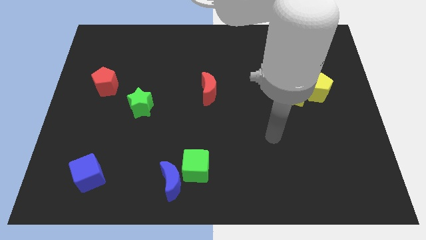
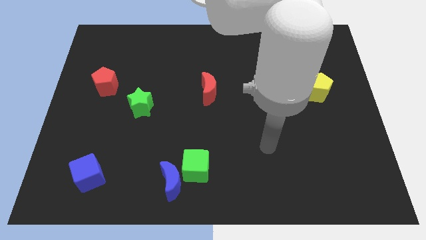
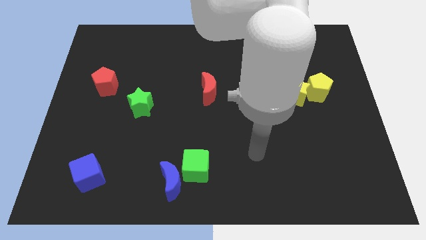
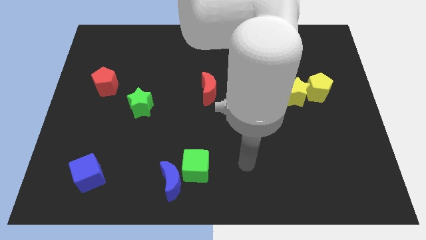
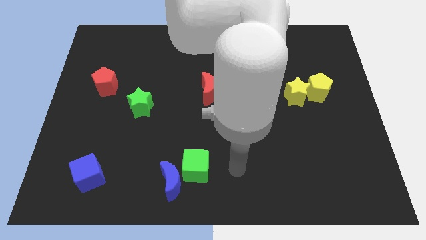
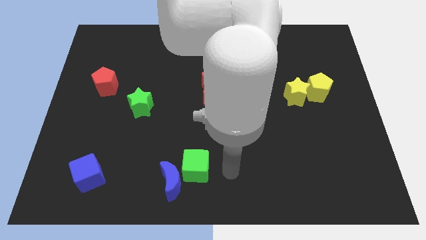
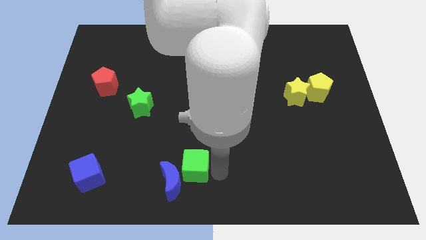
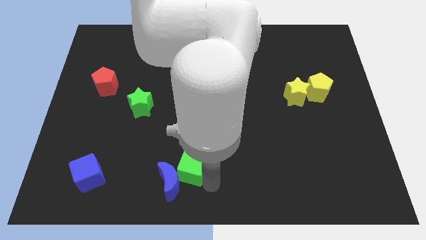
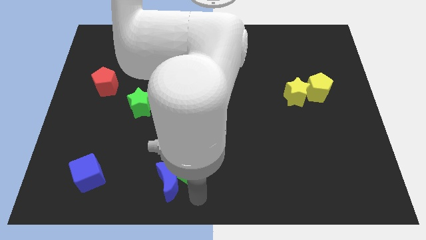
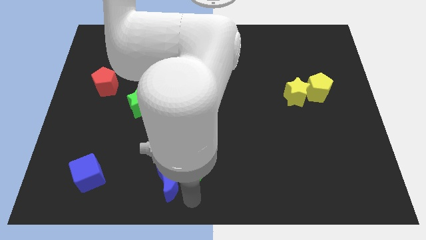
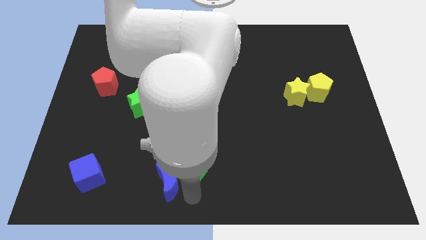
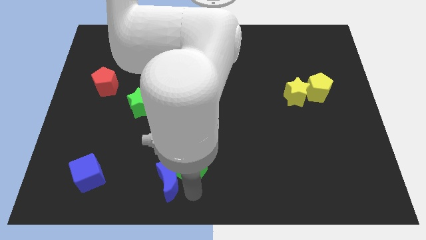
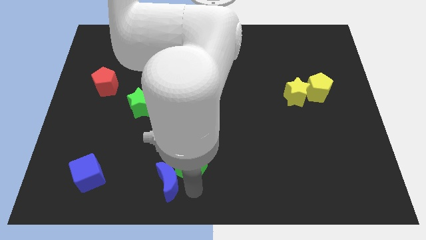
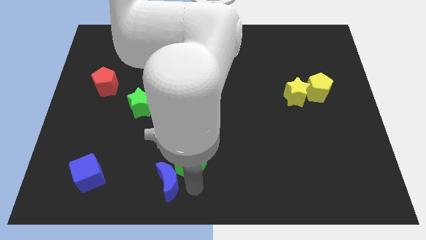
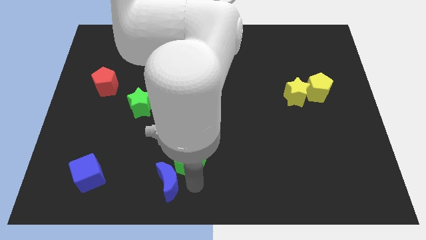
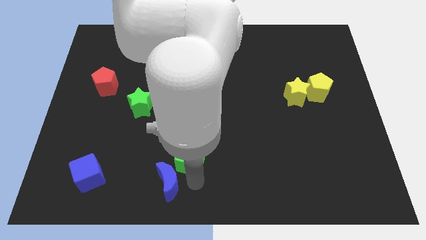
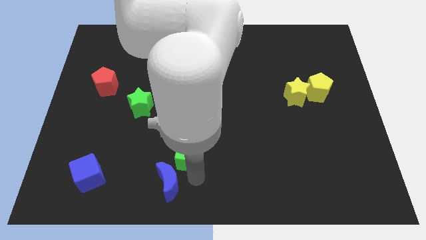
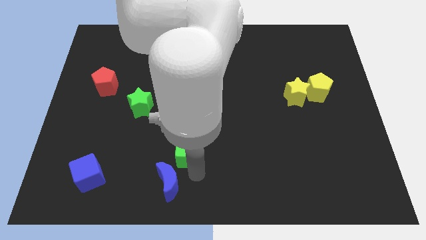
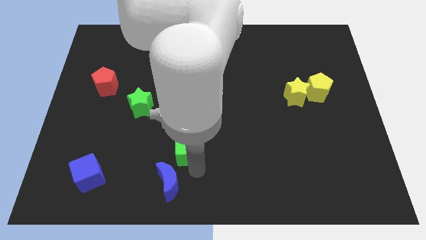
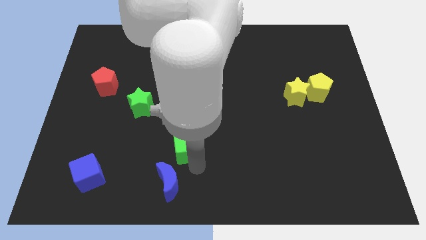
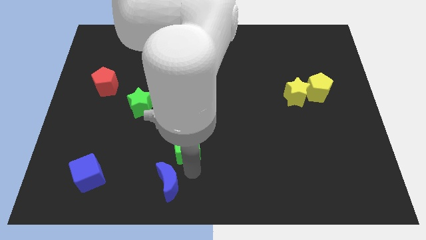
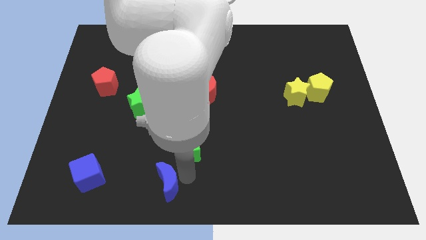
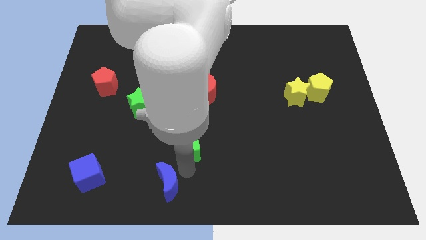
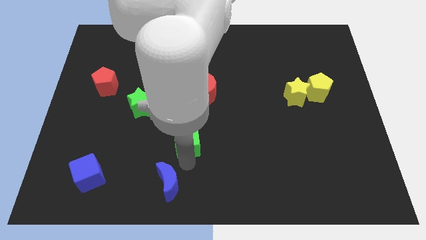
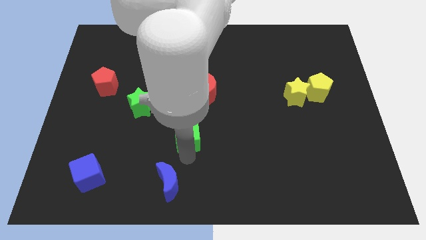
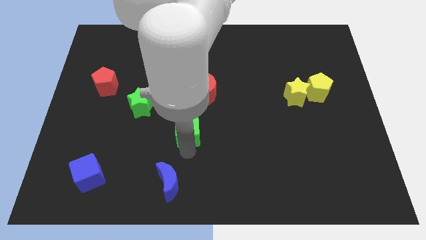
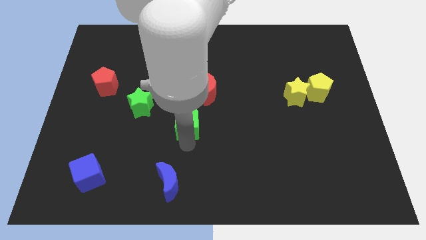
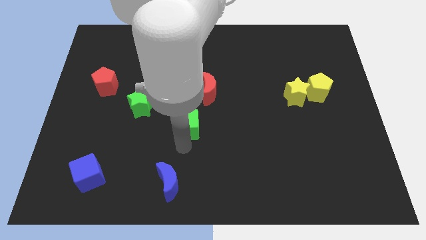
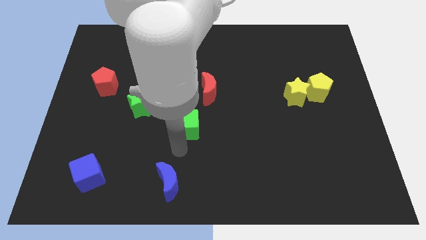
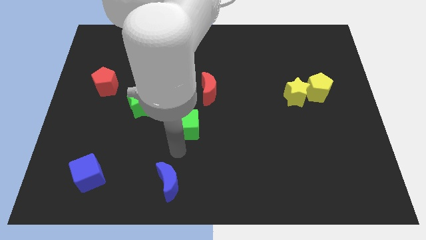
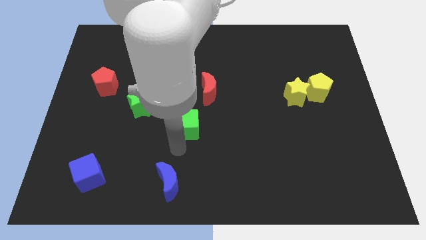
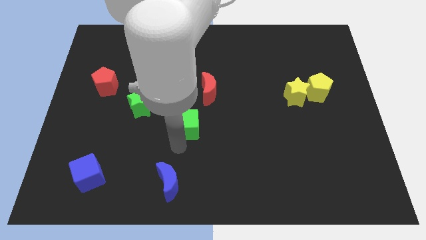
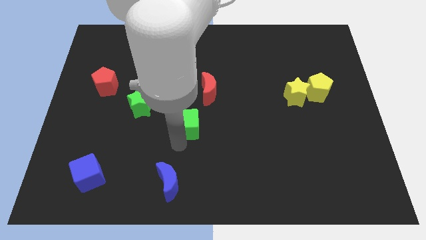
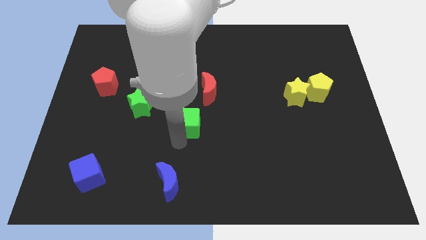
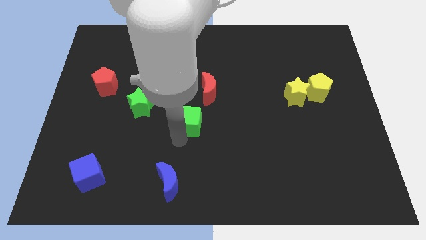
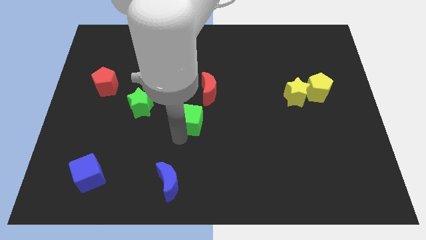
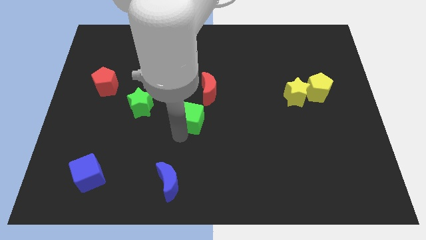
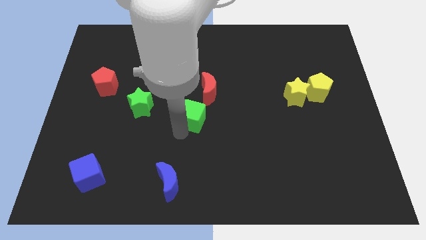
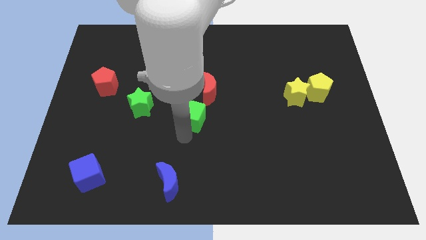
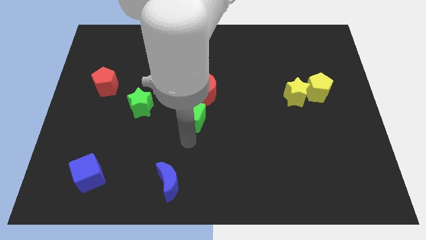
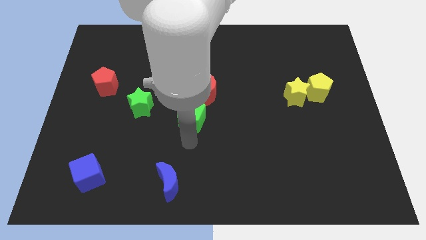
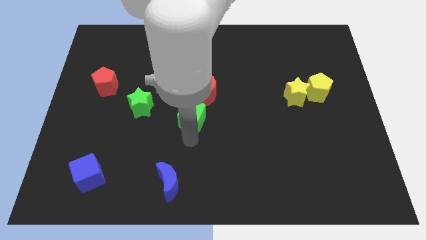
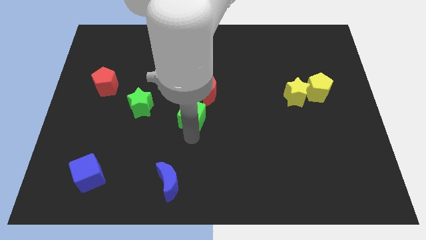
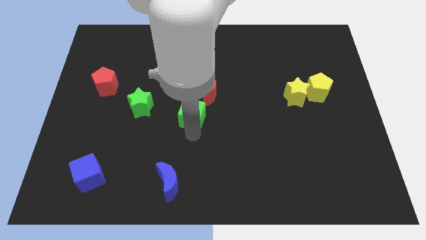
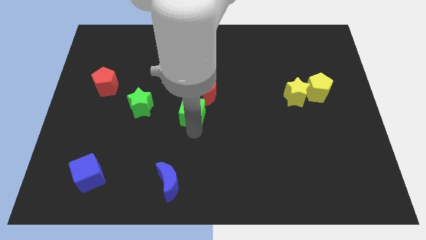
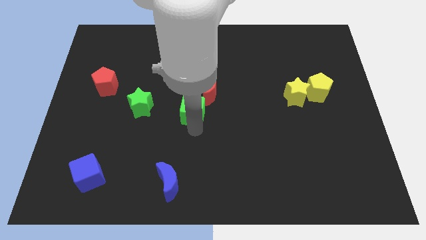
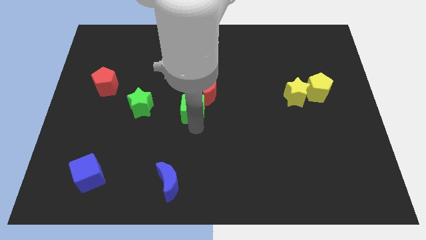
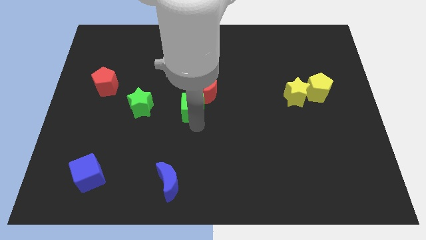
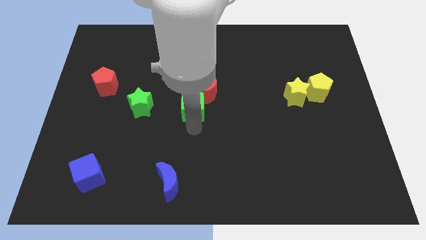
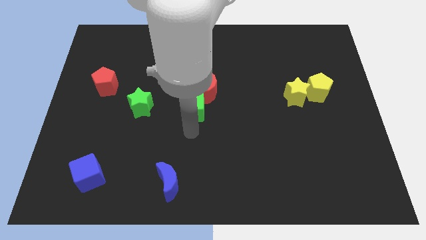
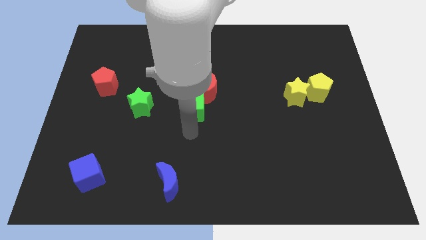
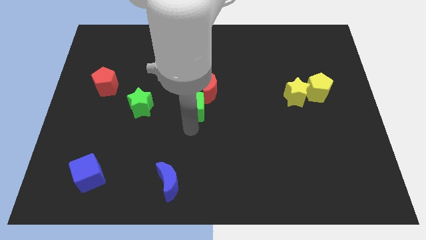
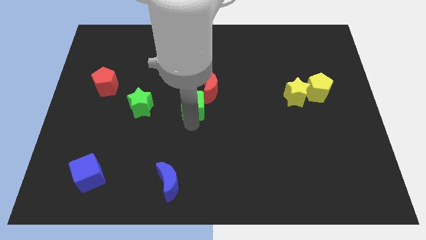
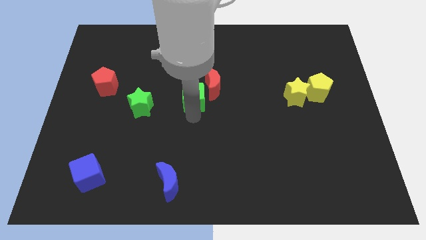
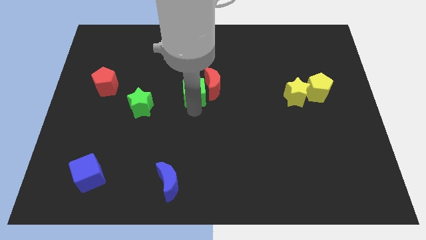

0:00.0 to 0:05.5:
push the green cube up

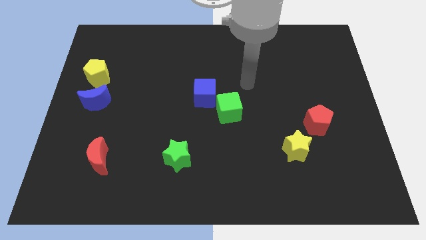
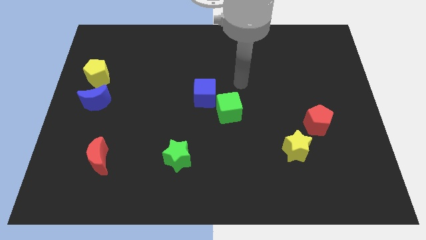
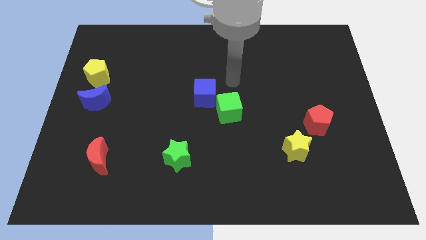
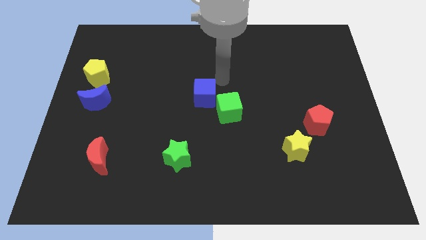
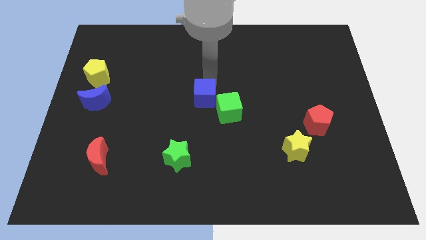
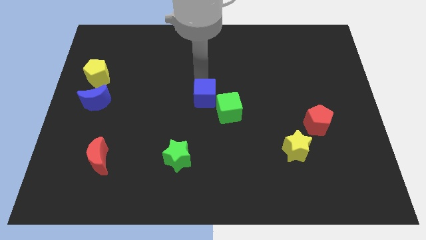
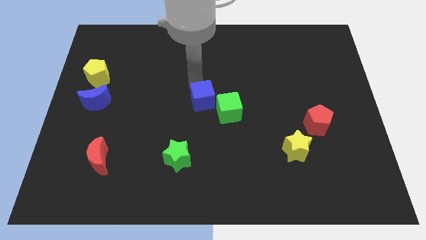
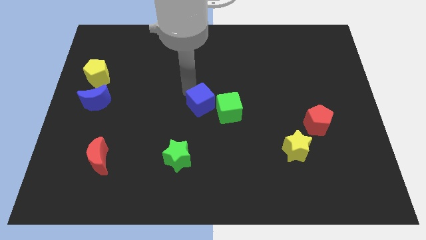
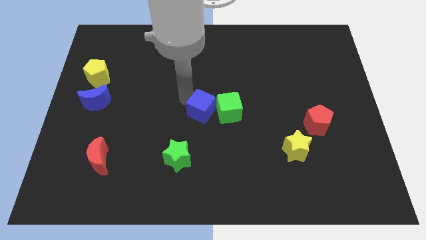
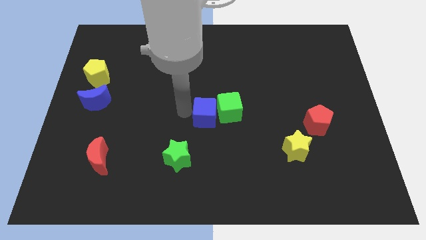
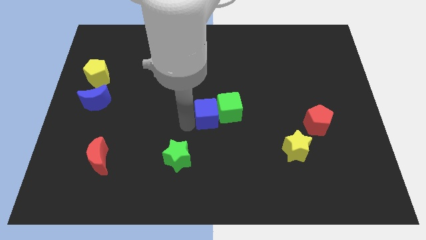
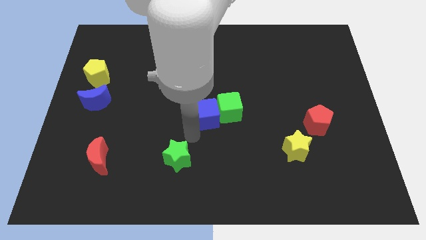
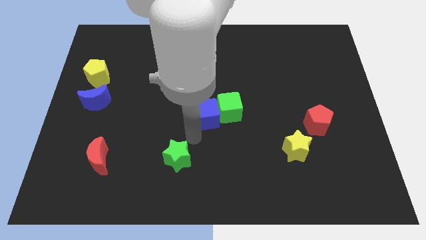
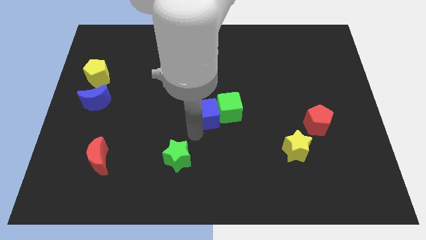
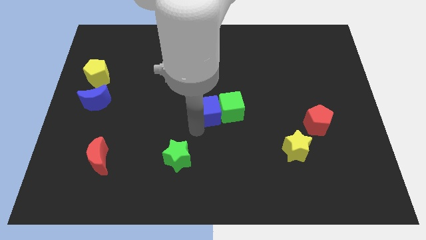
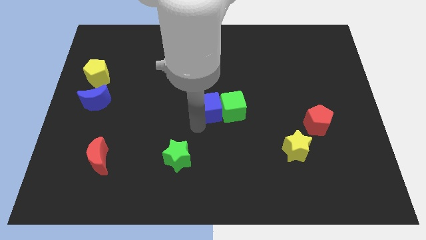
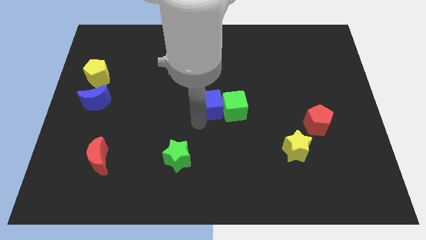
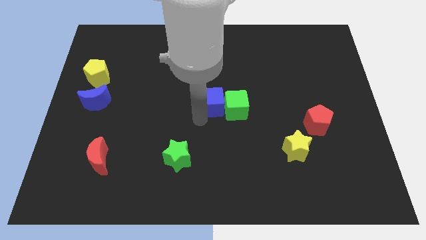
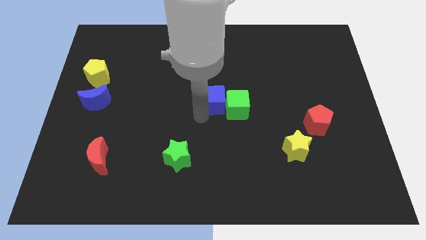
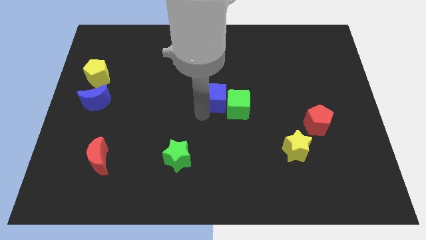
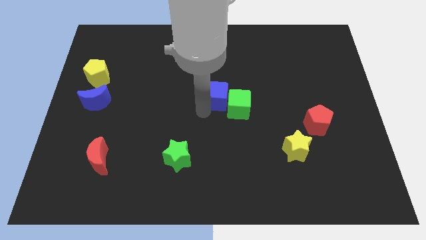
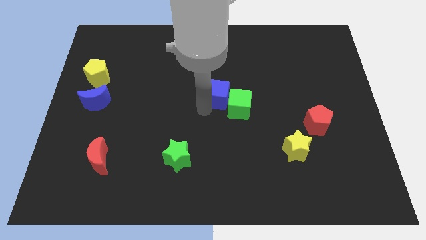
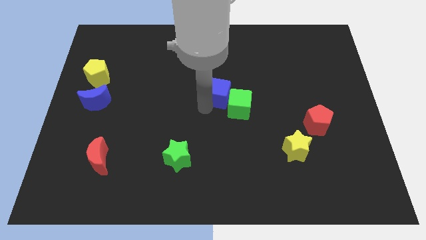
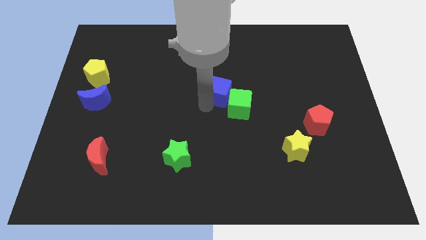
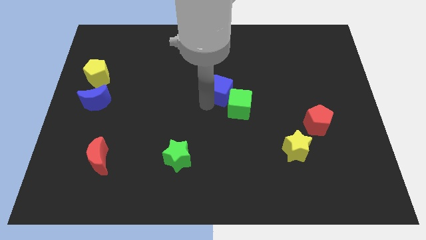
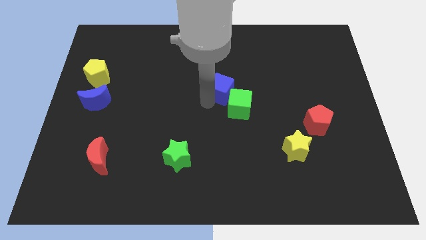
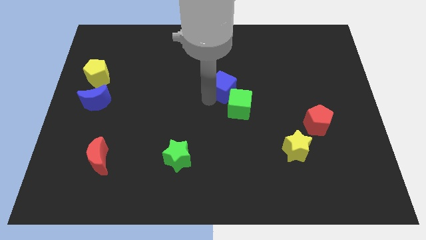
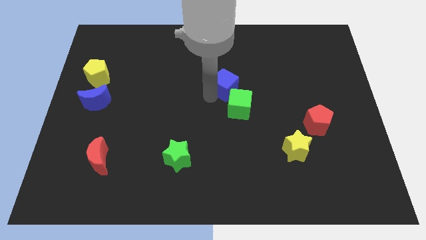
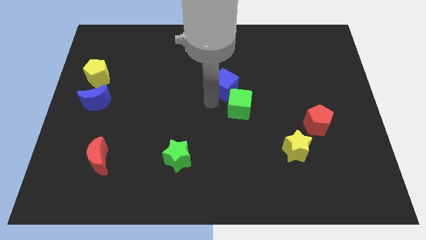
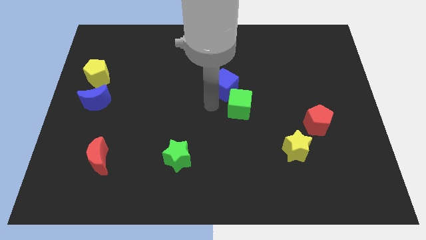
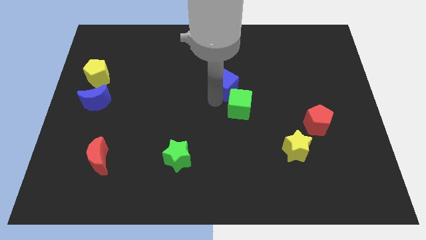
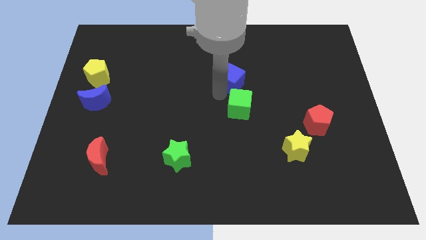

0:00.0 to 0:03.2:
push the blue cube upwards and right diagonally somewhat
